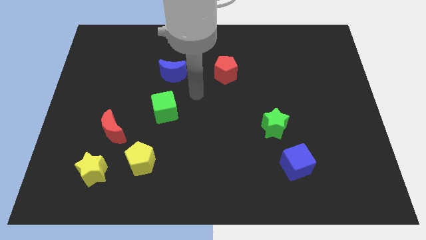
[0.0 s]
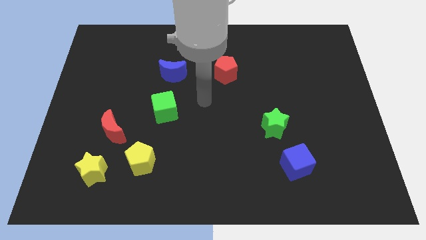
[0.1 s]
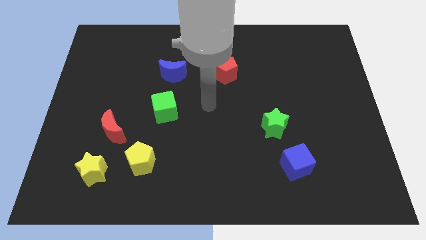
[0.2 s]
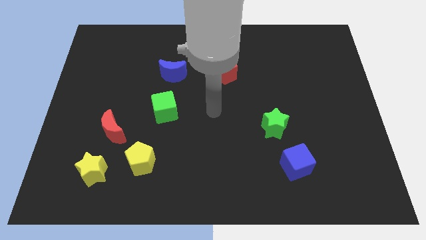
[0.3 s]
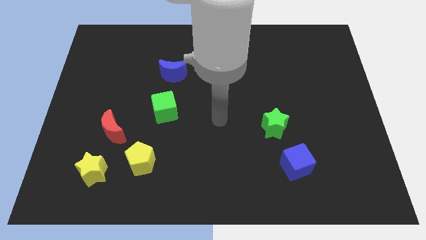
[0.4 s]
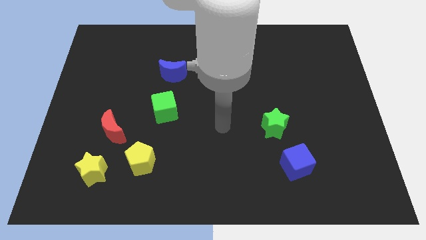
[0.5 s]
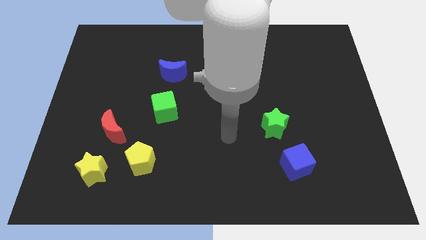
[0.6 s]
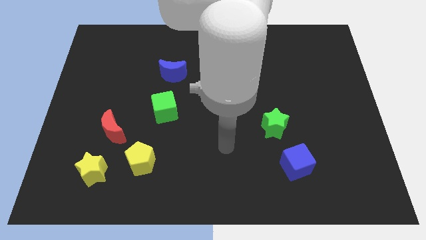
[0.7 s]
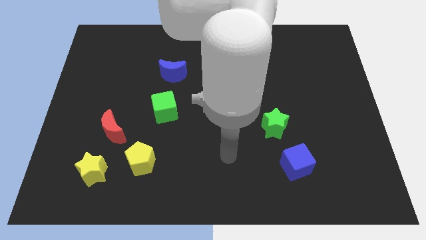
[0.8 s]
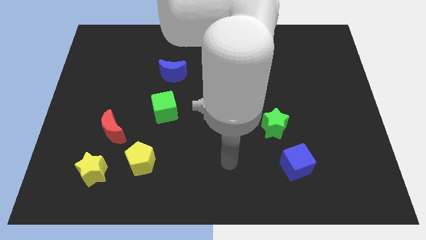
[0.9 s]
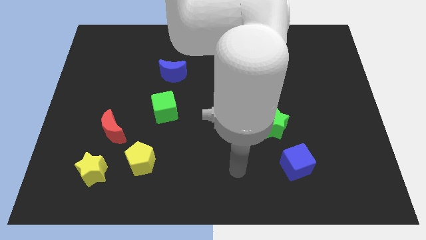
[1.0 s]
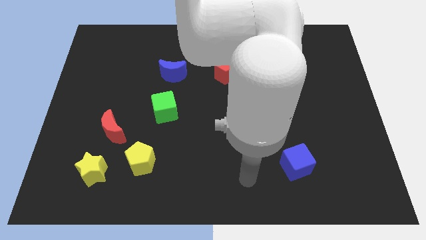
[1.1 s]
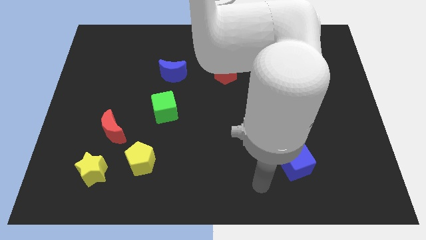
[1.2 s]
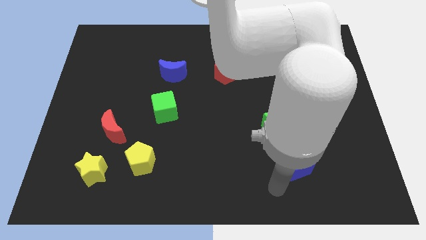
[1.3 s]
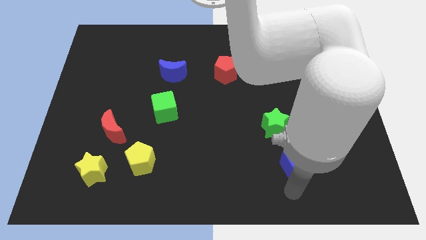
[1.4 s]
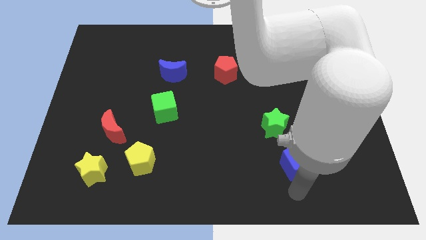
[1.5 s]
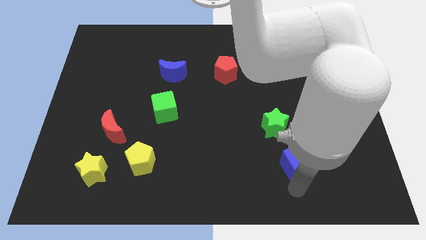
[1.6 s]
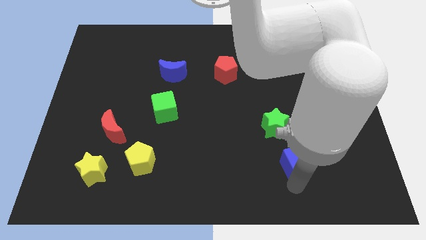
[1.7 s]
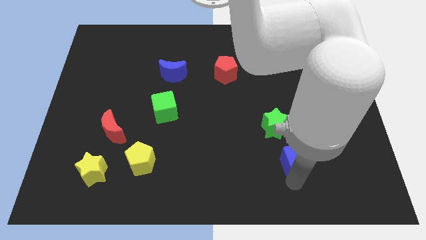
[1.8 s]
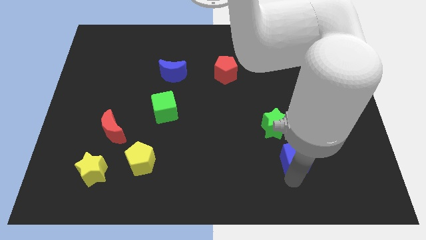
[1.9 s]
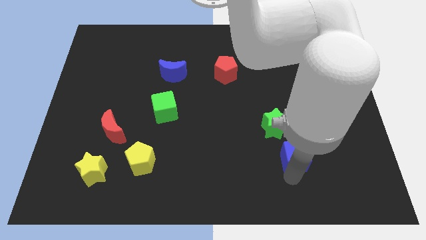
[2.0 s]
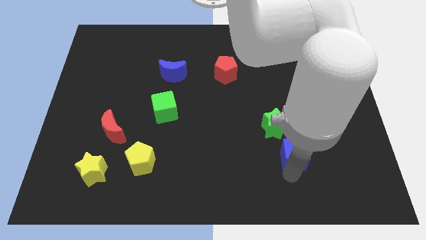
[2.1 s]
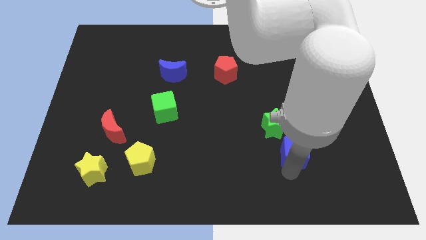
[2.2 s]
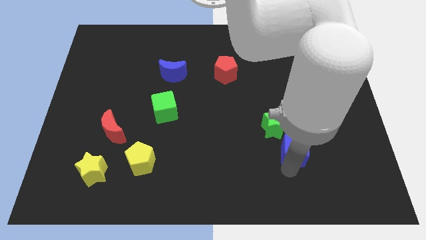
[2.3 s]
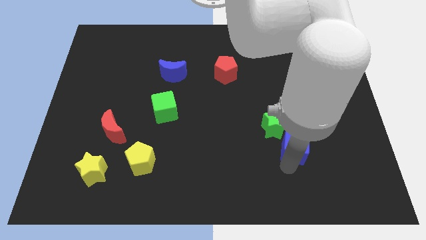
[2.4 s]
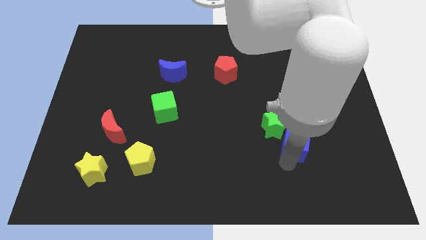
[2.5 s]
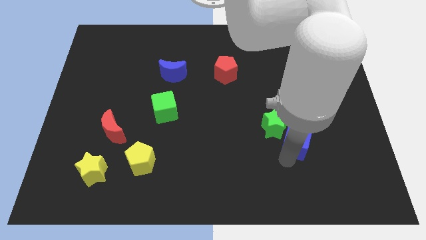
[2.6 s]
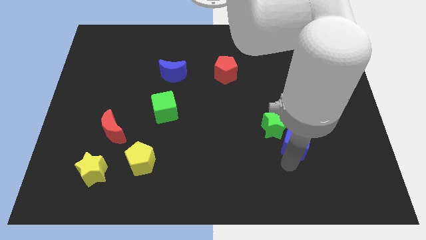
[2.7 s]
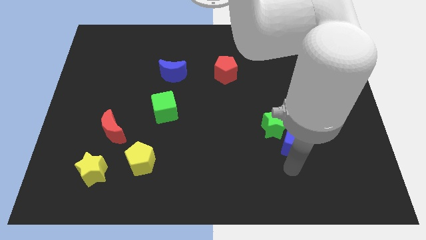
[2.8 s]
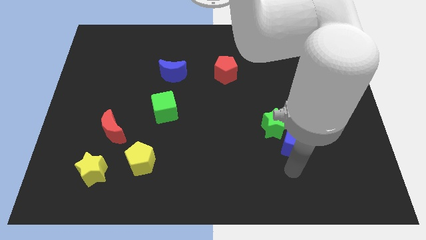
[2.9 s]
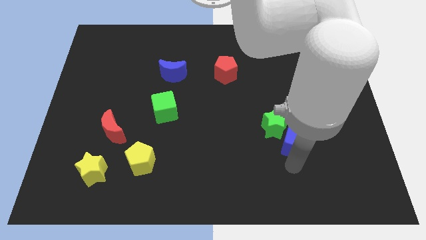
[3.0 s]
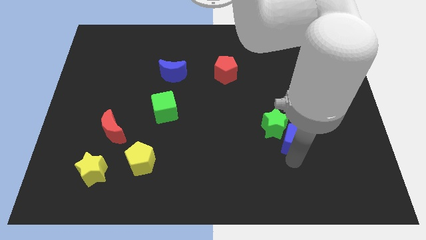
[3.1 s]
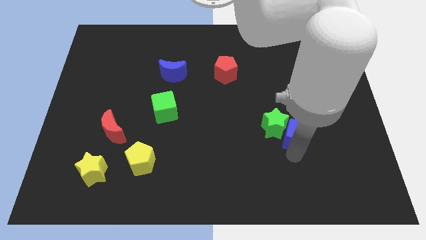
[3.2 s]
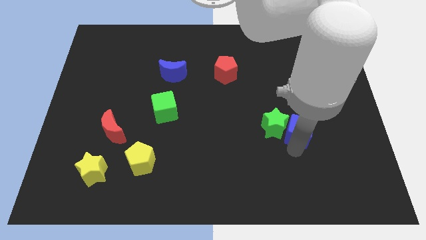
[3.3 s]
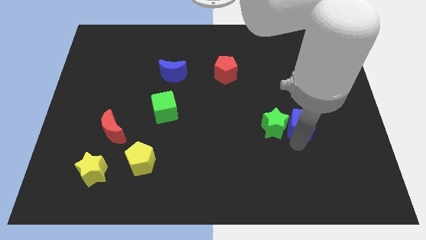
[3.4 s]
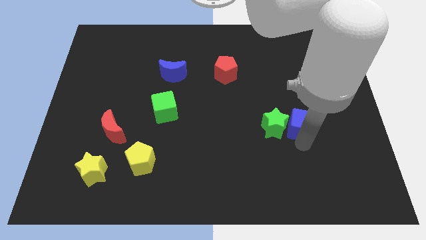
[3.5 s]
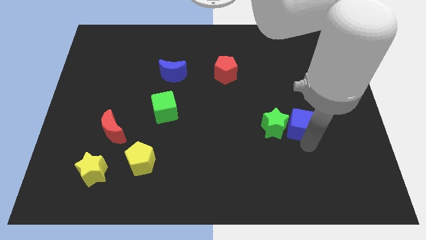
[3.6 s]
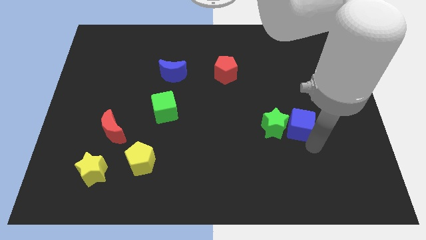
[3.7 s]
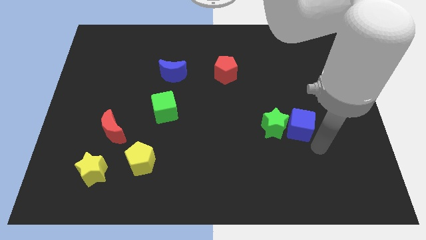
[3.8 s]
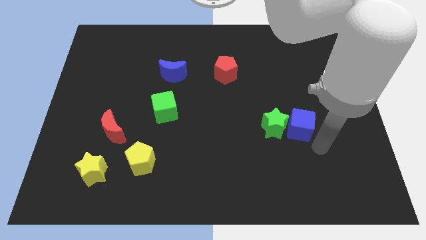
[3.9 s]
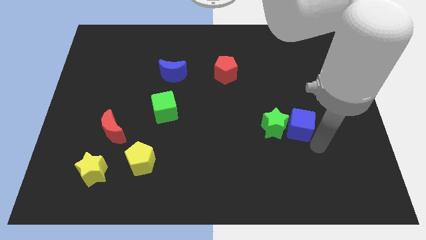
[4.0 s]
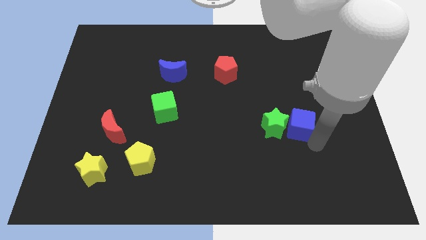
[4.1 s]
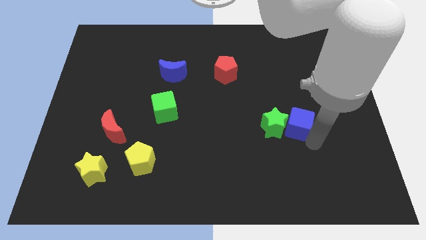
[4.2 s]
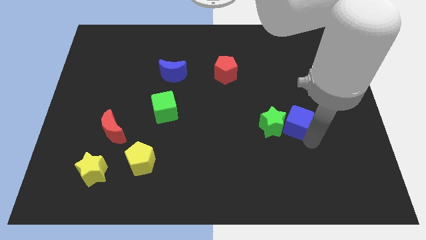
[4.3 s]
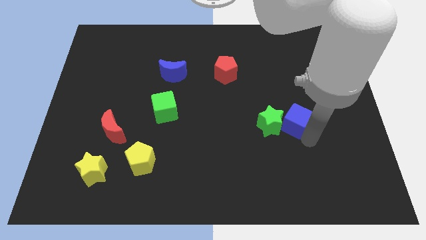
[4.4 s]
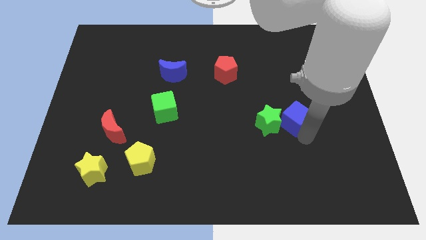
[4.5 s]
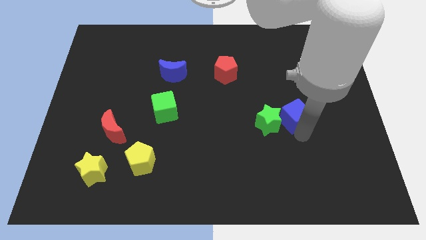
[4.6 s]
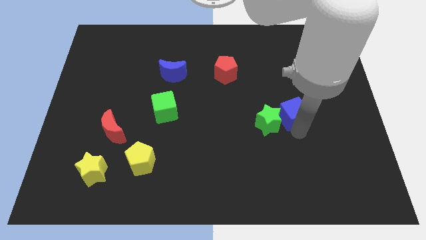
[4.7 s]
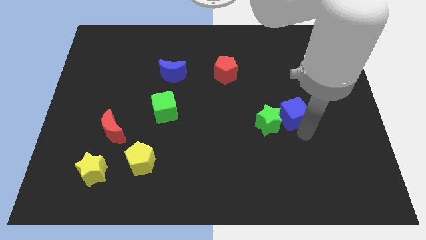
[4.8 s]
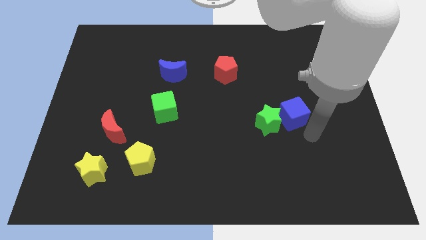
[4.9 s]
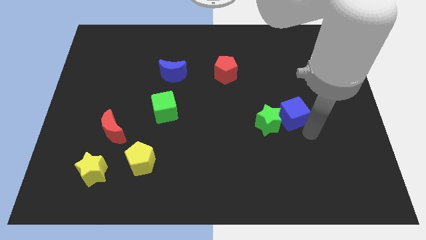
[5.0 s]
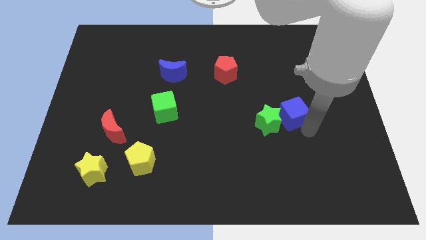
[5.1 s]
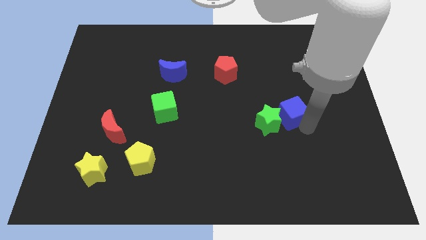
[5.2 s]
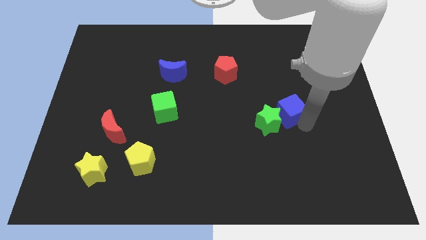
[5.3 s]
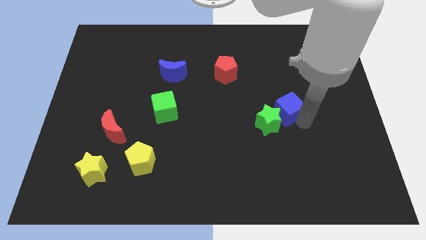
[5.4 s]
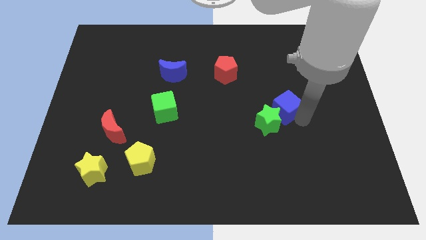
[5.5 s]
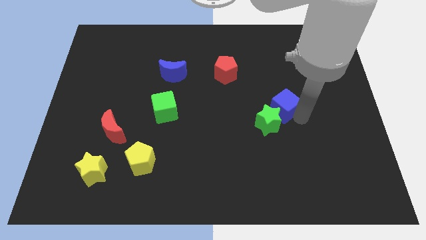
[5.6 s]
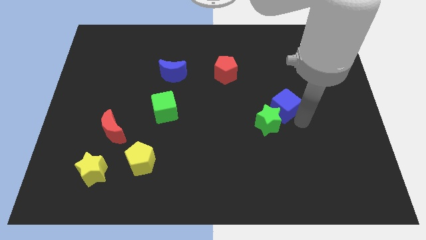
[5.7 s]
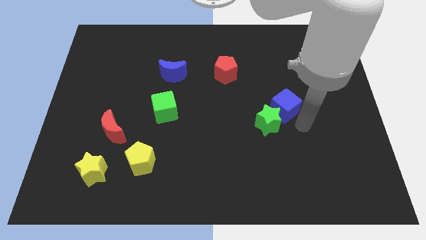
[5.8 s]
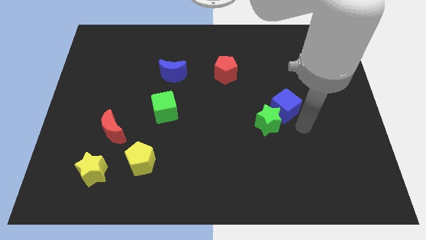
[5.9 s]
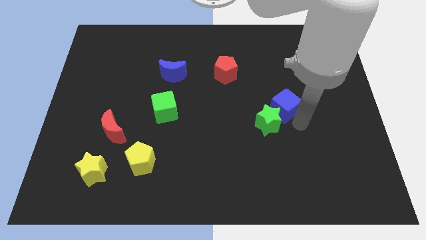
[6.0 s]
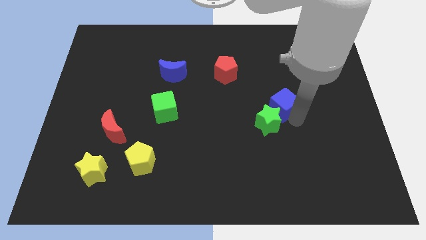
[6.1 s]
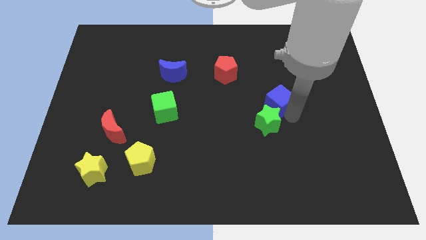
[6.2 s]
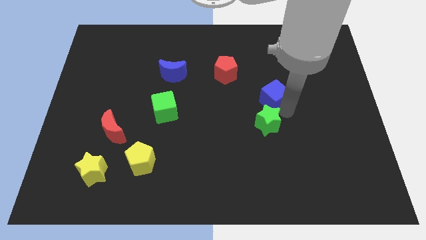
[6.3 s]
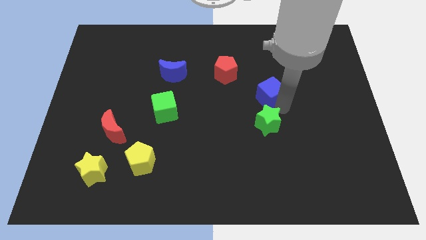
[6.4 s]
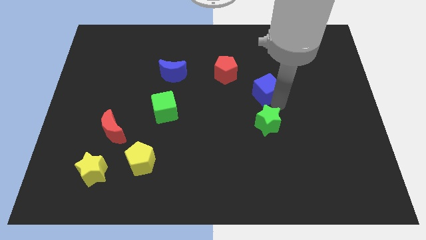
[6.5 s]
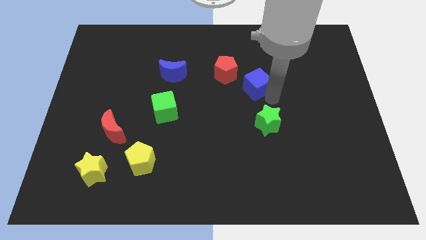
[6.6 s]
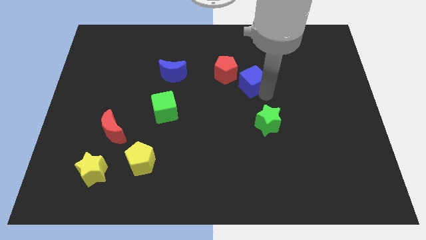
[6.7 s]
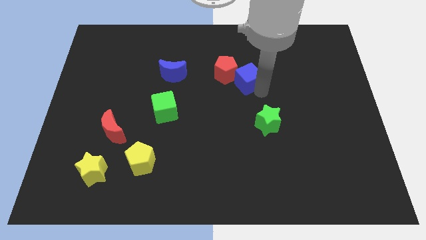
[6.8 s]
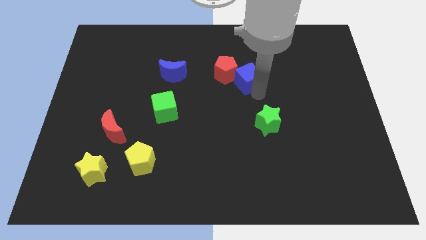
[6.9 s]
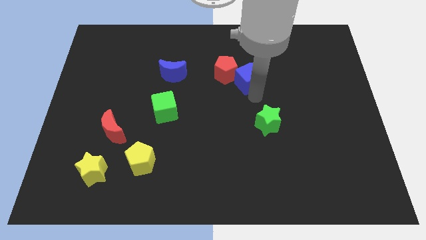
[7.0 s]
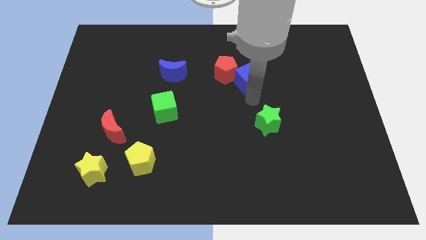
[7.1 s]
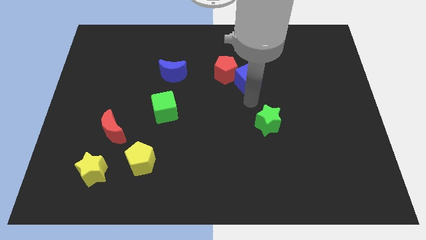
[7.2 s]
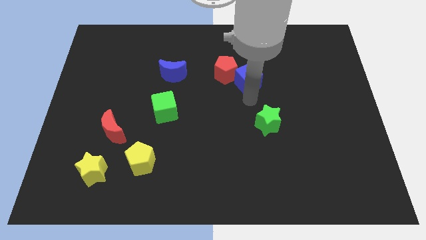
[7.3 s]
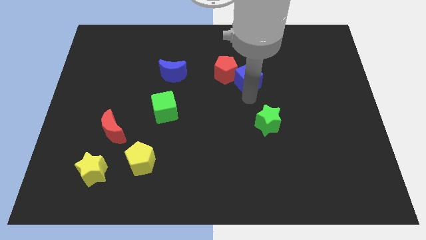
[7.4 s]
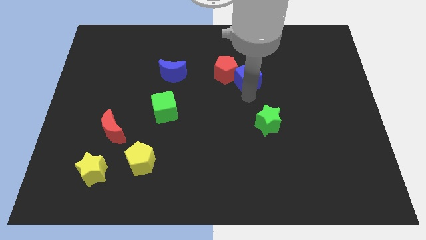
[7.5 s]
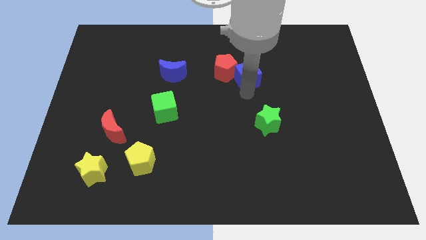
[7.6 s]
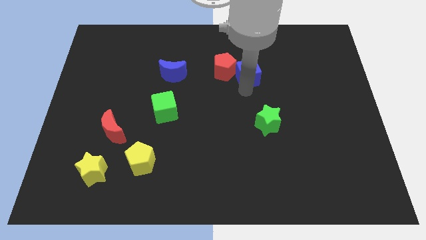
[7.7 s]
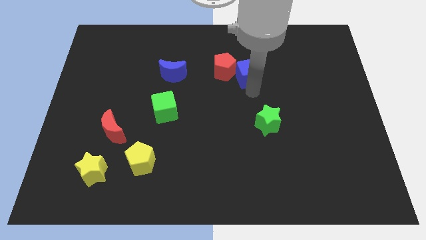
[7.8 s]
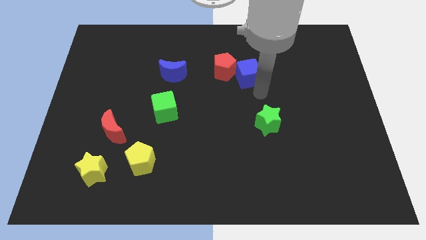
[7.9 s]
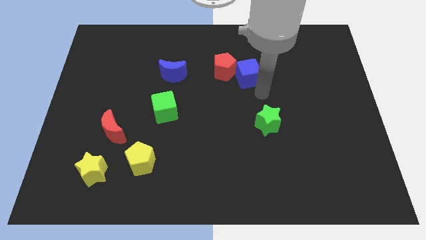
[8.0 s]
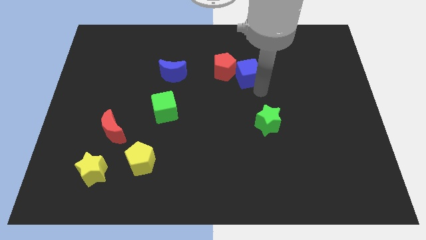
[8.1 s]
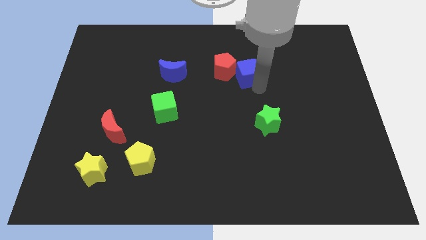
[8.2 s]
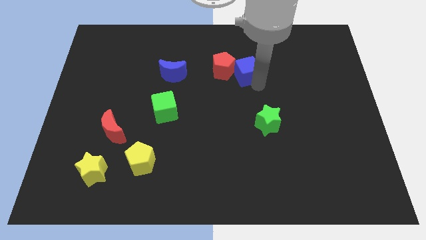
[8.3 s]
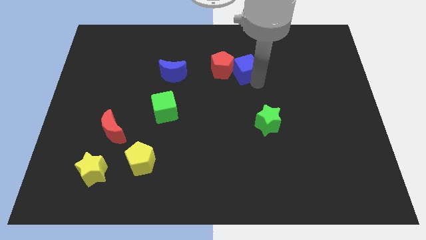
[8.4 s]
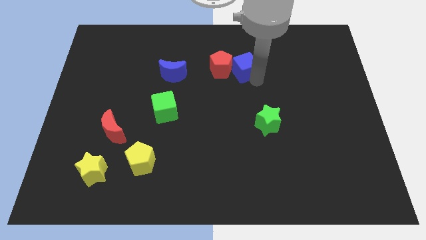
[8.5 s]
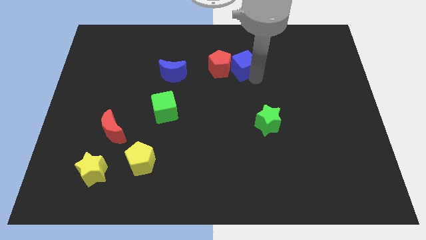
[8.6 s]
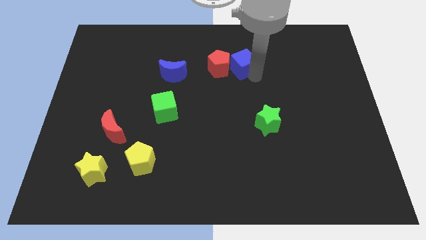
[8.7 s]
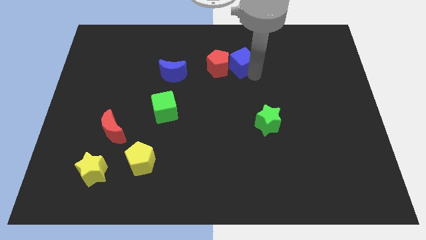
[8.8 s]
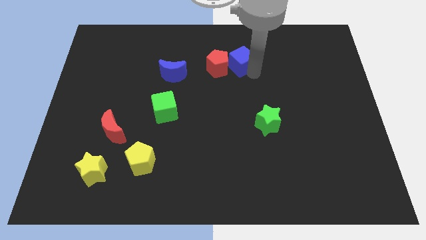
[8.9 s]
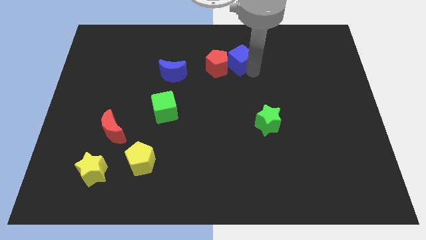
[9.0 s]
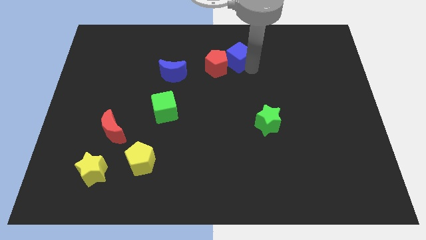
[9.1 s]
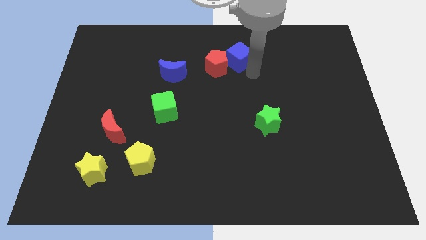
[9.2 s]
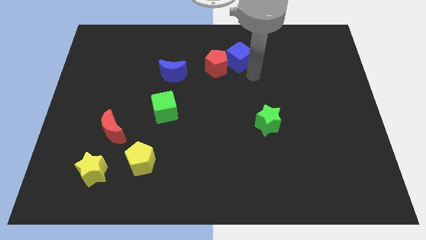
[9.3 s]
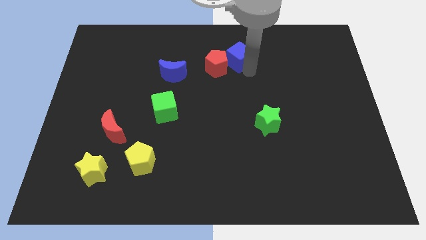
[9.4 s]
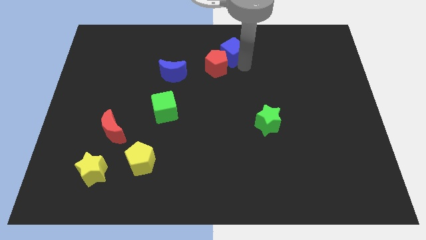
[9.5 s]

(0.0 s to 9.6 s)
push the blue cube to the top
